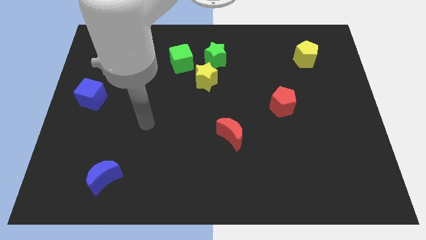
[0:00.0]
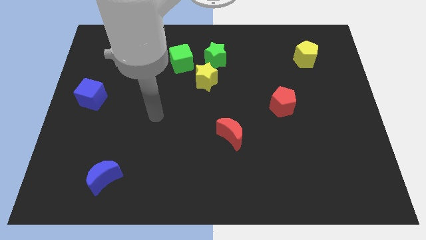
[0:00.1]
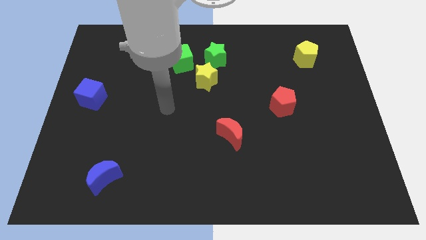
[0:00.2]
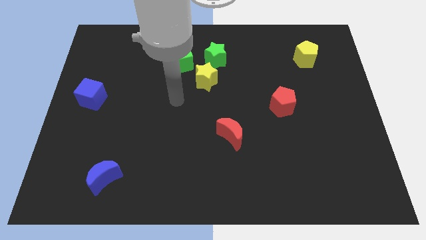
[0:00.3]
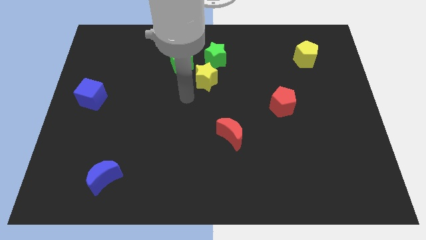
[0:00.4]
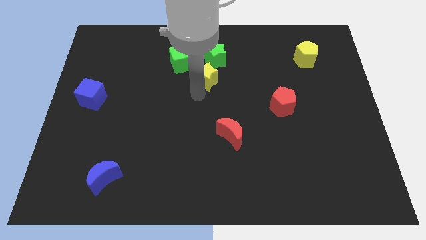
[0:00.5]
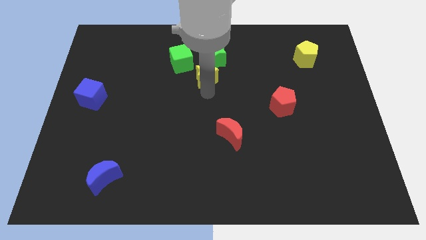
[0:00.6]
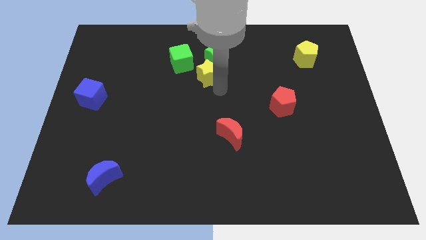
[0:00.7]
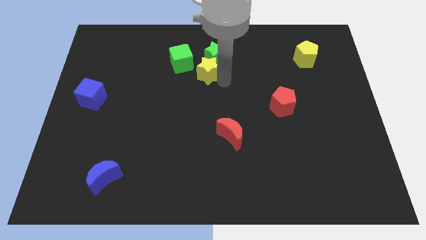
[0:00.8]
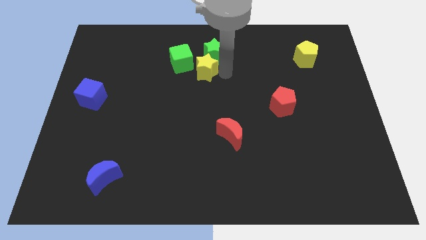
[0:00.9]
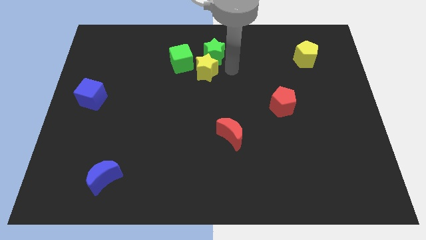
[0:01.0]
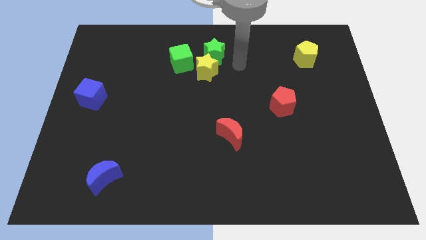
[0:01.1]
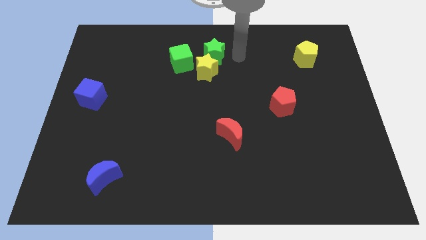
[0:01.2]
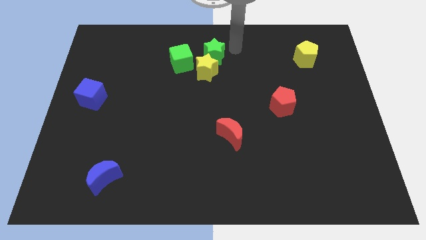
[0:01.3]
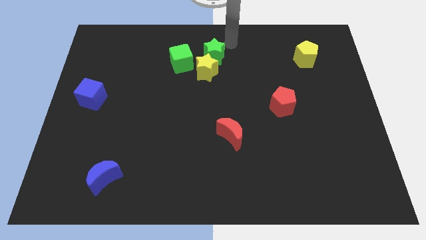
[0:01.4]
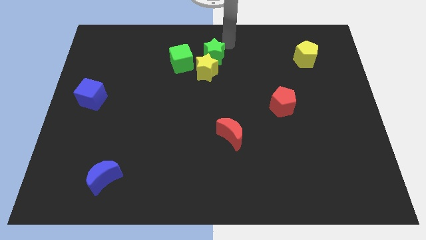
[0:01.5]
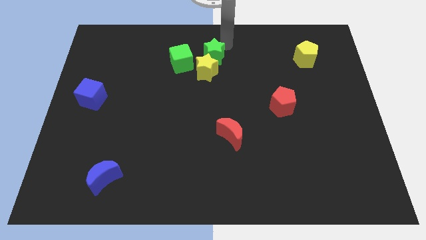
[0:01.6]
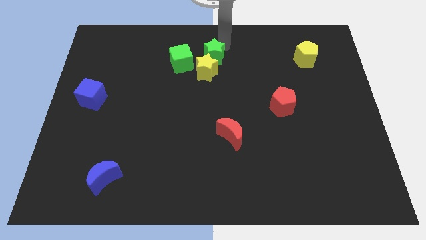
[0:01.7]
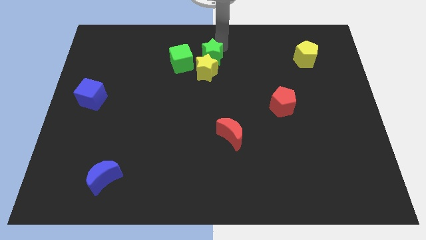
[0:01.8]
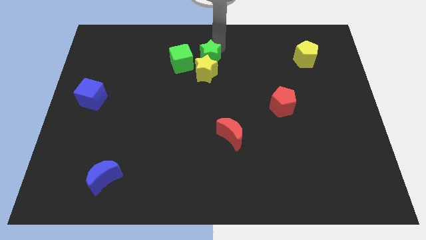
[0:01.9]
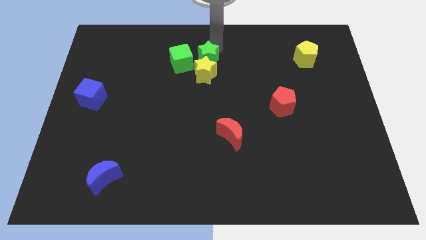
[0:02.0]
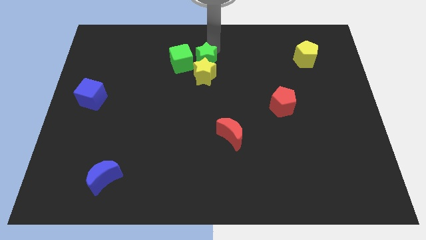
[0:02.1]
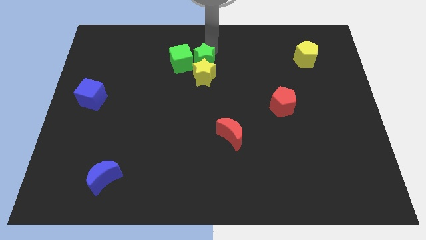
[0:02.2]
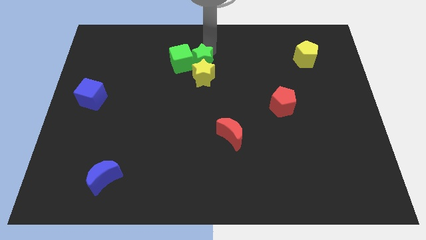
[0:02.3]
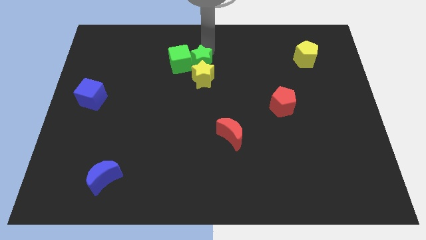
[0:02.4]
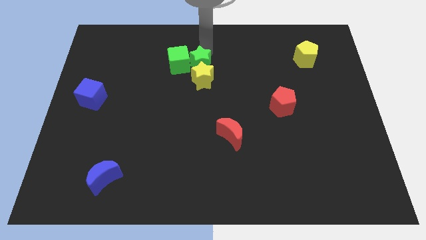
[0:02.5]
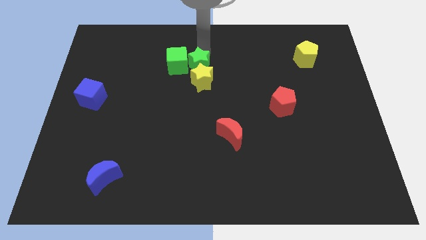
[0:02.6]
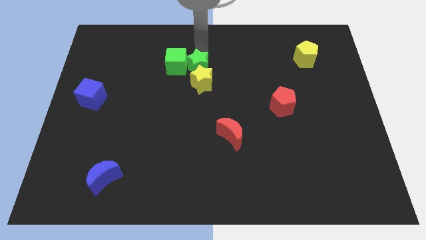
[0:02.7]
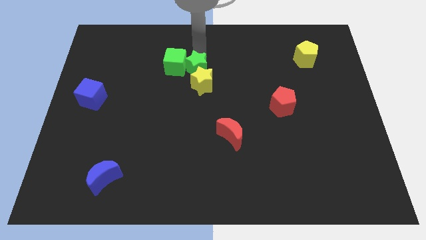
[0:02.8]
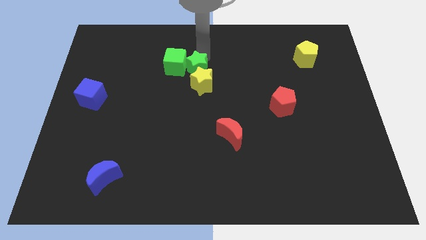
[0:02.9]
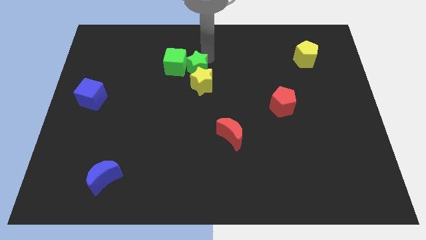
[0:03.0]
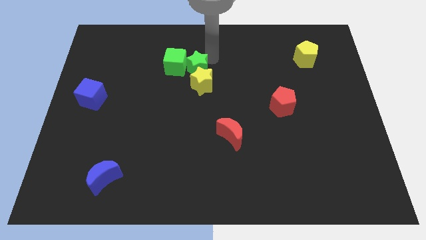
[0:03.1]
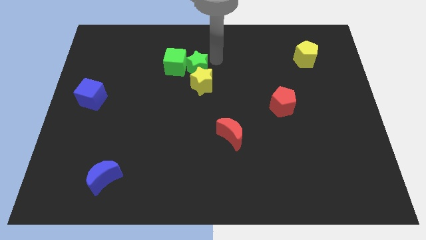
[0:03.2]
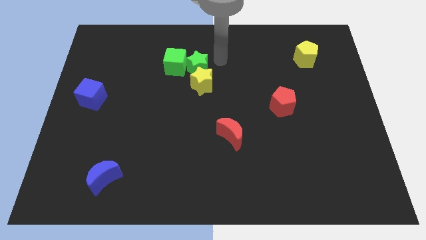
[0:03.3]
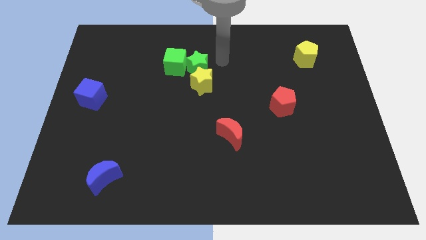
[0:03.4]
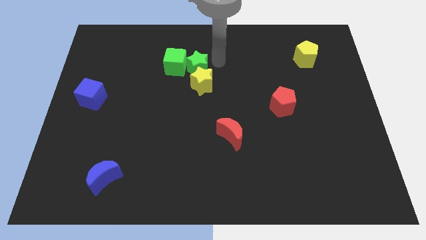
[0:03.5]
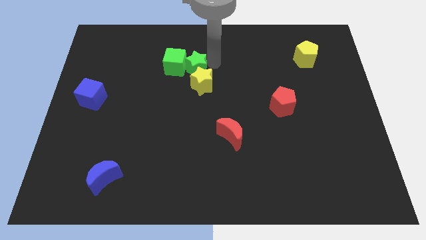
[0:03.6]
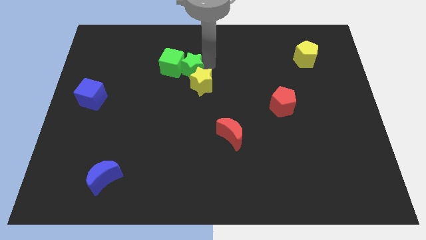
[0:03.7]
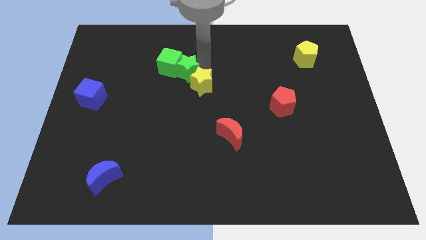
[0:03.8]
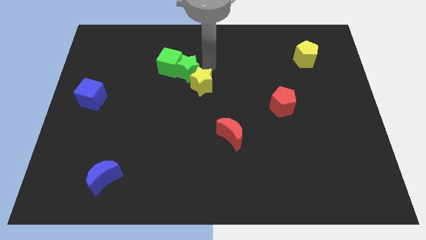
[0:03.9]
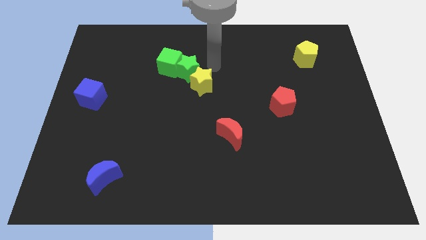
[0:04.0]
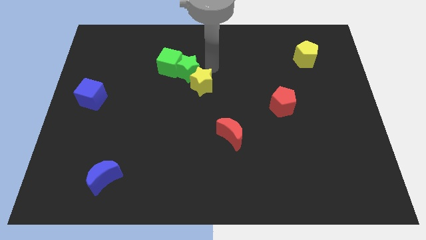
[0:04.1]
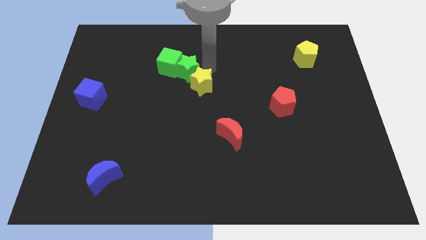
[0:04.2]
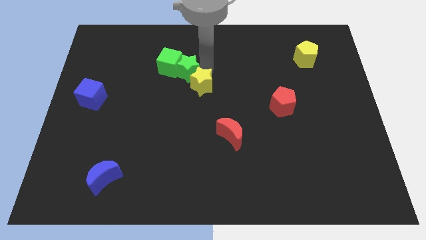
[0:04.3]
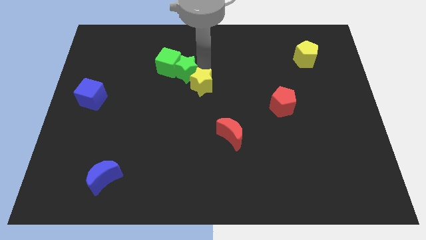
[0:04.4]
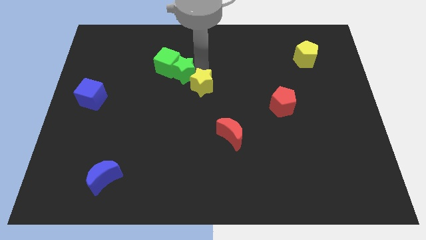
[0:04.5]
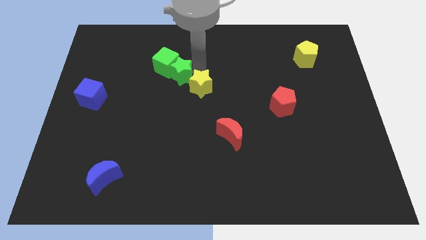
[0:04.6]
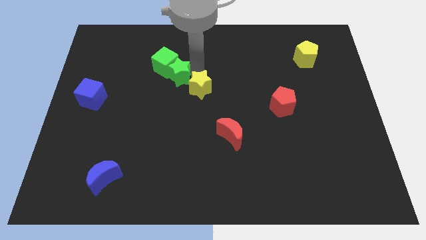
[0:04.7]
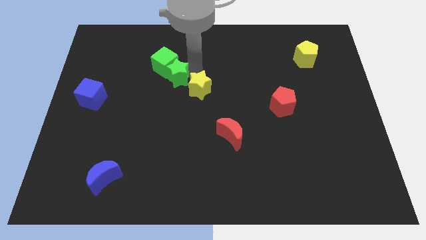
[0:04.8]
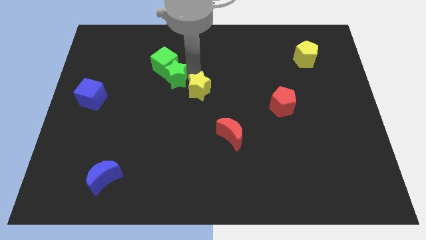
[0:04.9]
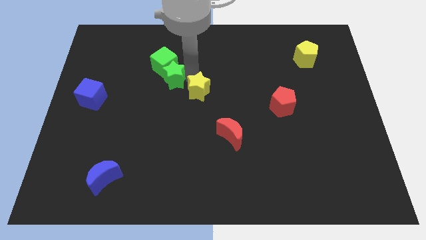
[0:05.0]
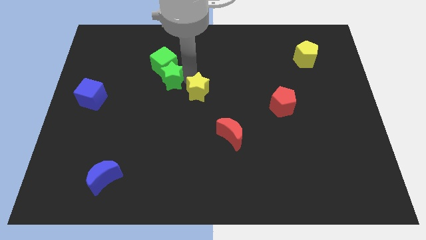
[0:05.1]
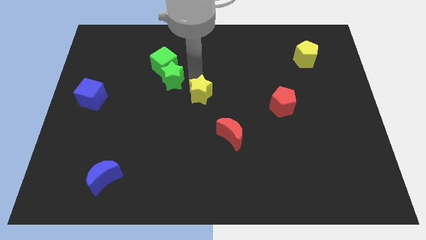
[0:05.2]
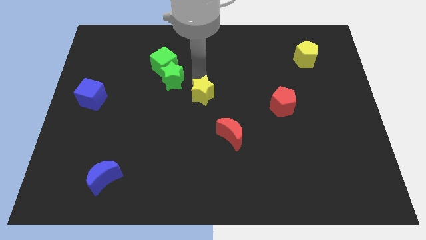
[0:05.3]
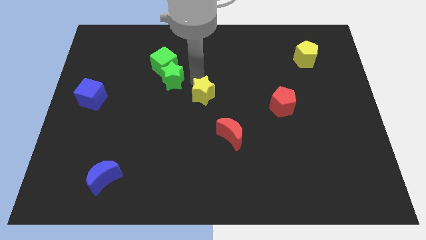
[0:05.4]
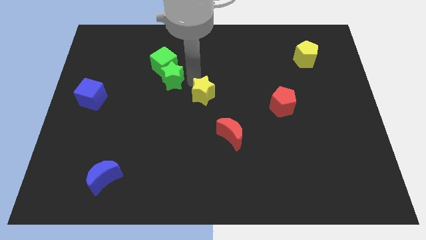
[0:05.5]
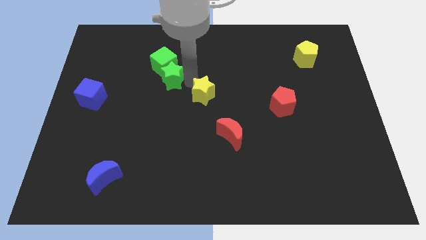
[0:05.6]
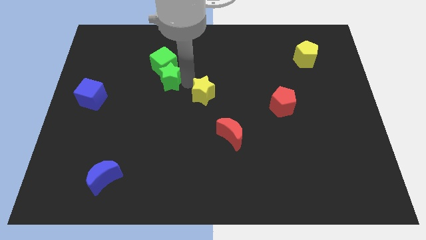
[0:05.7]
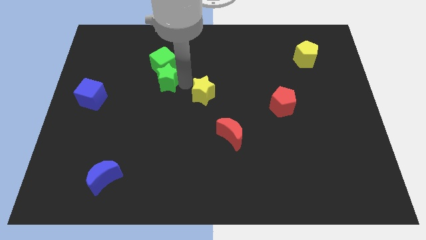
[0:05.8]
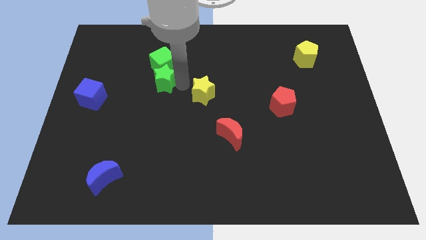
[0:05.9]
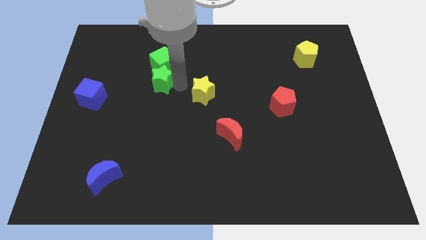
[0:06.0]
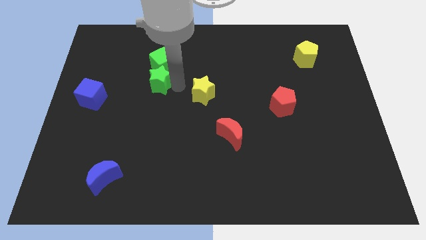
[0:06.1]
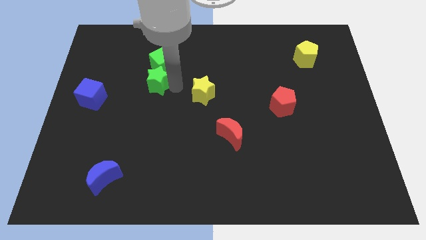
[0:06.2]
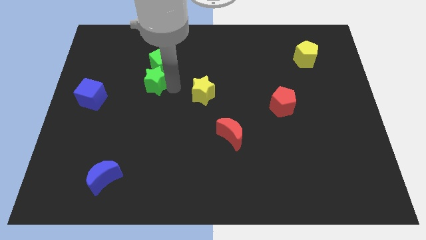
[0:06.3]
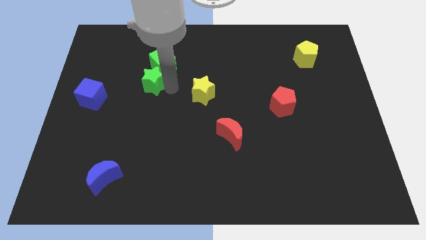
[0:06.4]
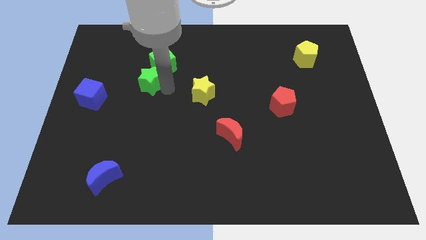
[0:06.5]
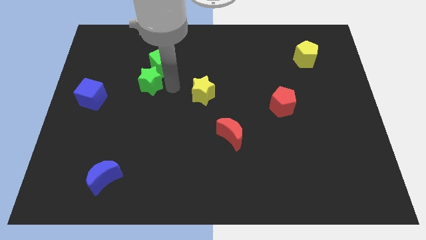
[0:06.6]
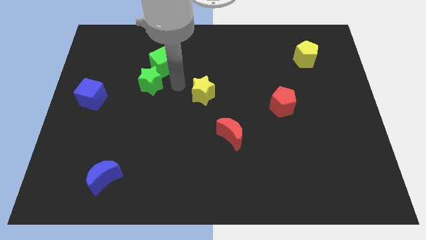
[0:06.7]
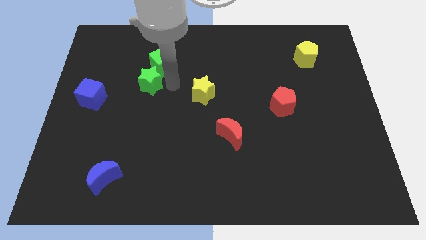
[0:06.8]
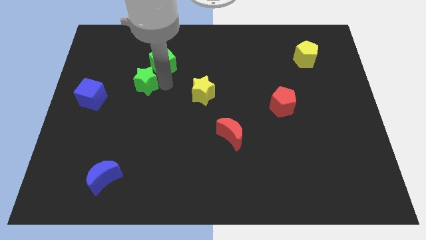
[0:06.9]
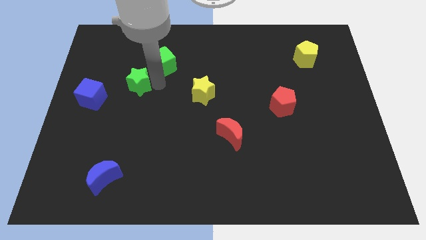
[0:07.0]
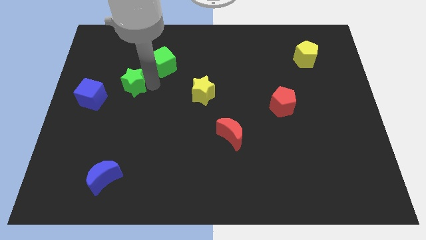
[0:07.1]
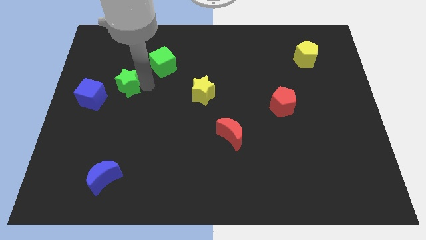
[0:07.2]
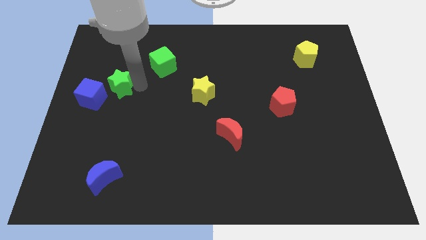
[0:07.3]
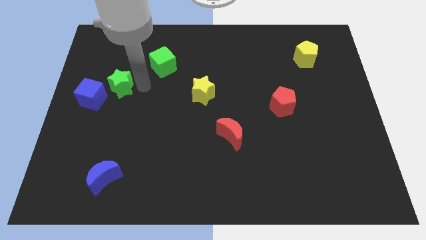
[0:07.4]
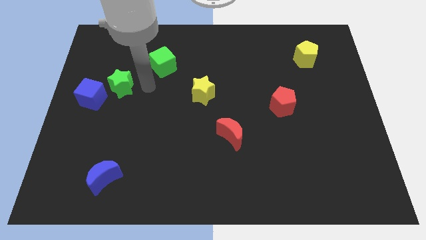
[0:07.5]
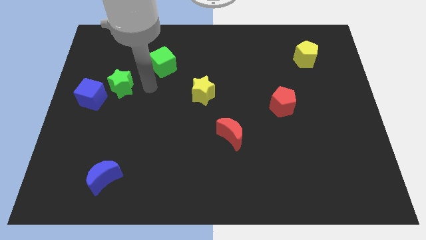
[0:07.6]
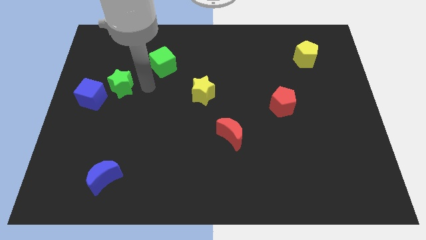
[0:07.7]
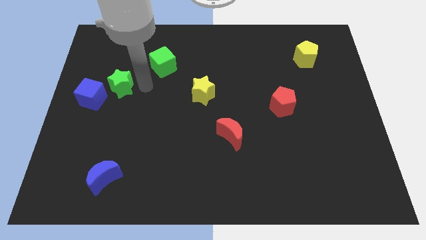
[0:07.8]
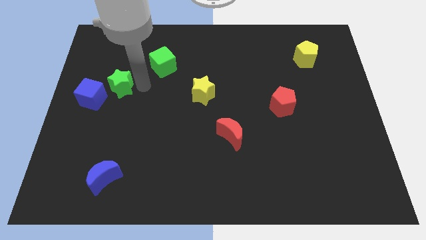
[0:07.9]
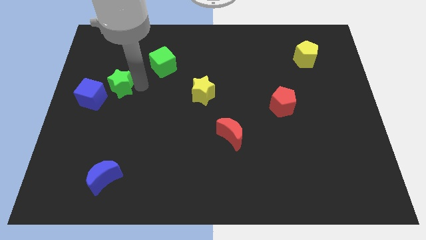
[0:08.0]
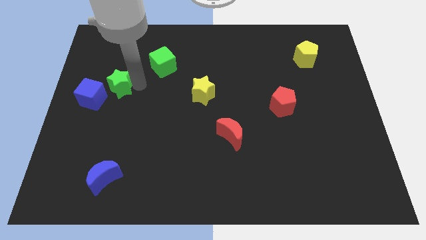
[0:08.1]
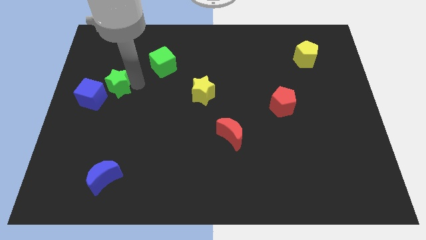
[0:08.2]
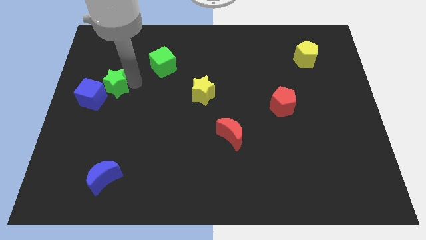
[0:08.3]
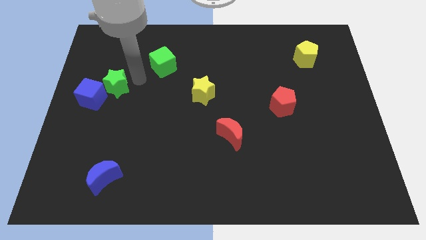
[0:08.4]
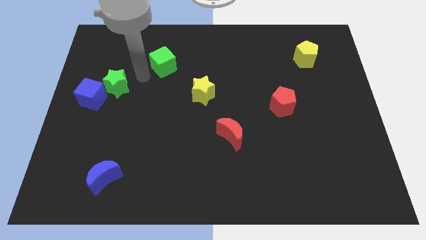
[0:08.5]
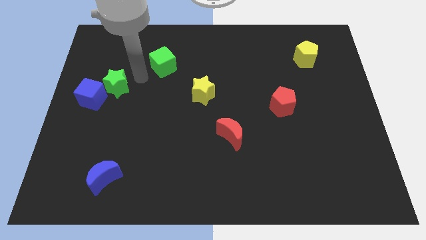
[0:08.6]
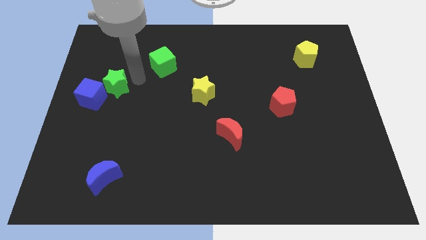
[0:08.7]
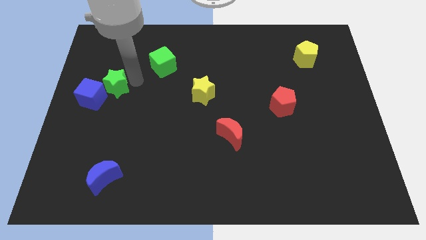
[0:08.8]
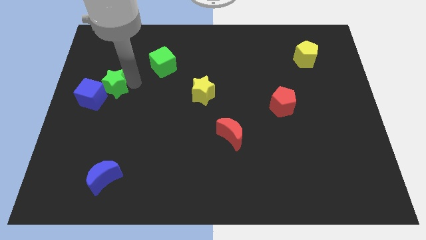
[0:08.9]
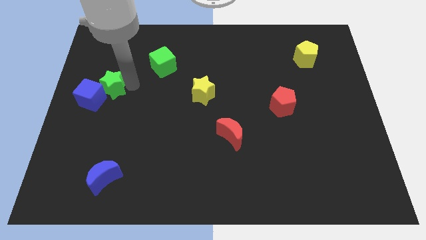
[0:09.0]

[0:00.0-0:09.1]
slide the green star next to the blue cube
